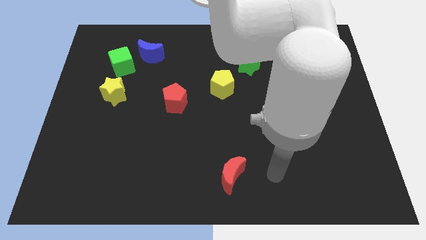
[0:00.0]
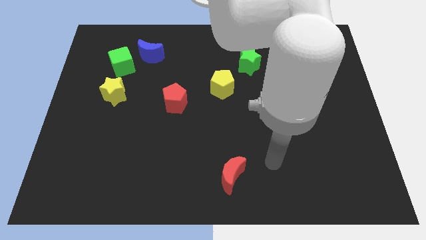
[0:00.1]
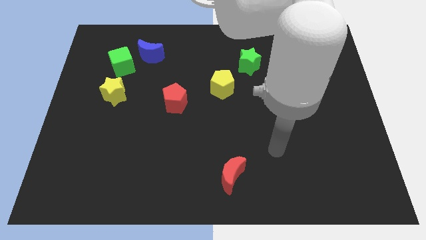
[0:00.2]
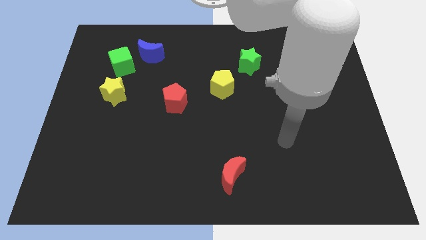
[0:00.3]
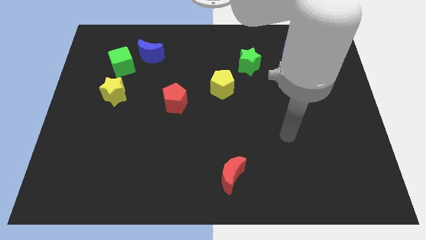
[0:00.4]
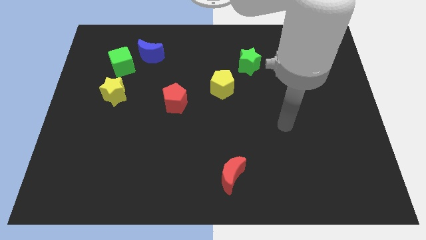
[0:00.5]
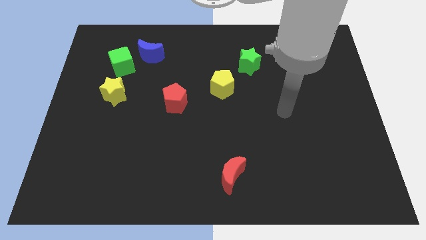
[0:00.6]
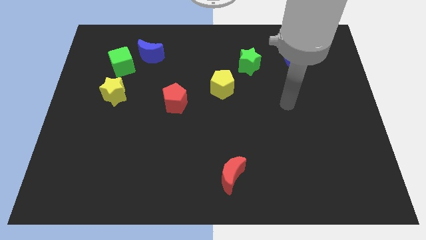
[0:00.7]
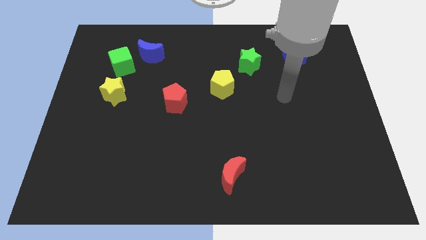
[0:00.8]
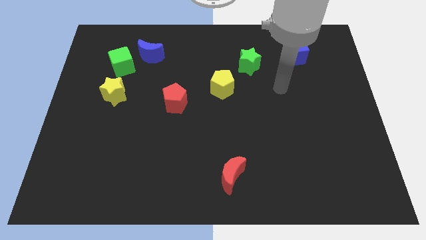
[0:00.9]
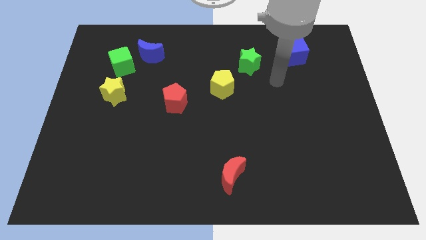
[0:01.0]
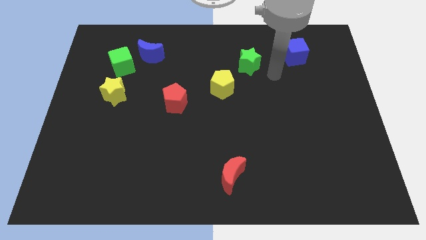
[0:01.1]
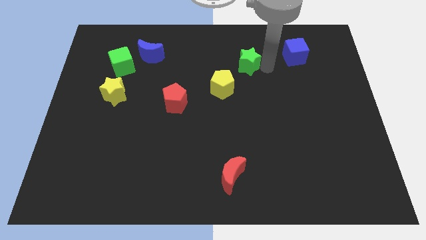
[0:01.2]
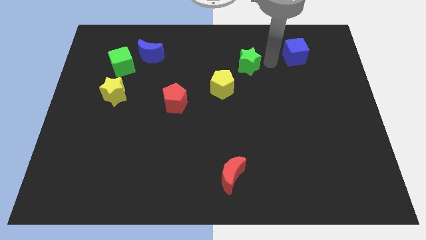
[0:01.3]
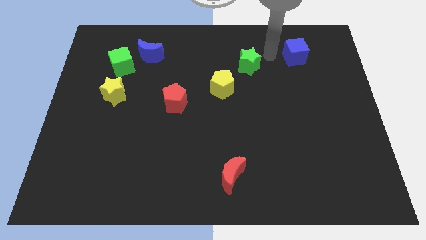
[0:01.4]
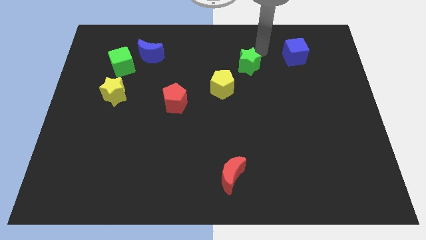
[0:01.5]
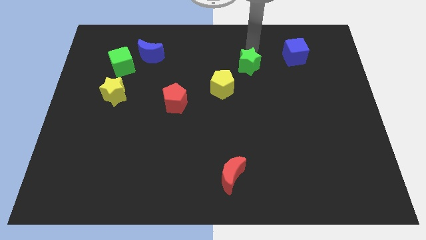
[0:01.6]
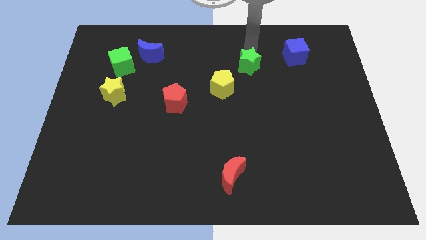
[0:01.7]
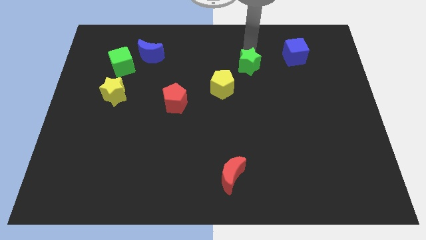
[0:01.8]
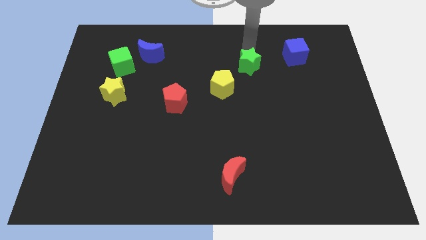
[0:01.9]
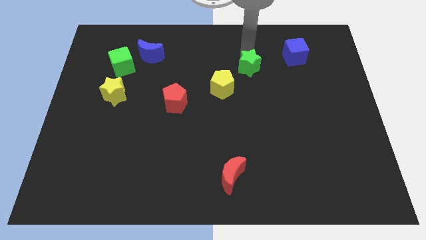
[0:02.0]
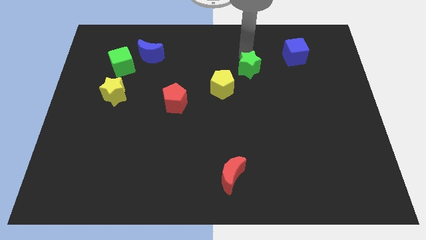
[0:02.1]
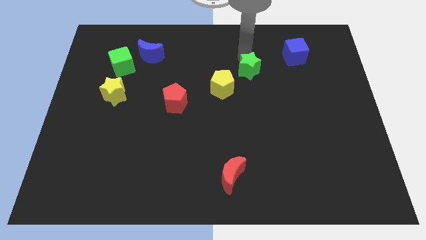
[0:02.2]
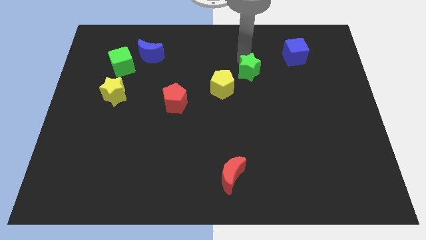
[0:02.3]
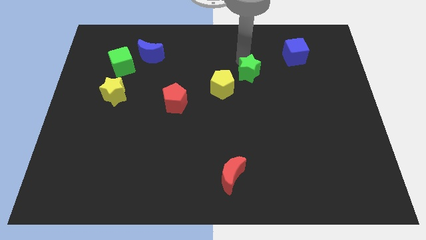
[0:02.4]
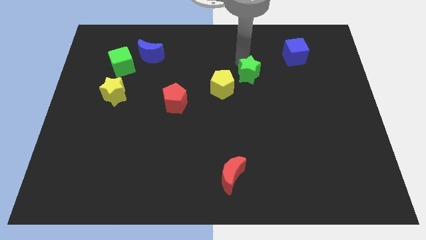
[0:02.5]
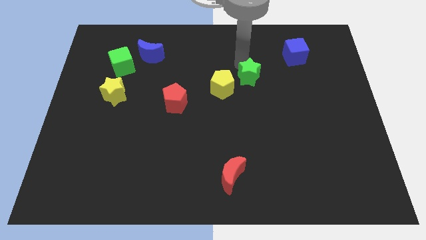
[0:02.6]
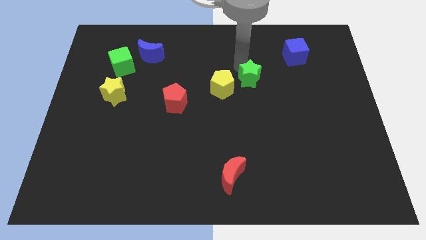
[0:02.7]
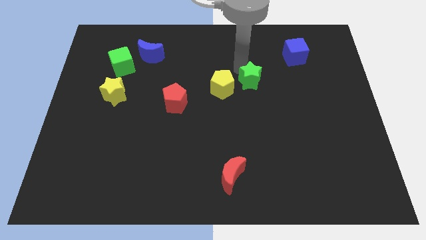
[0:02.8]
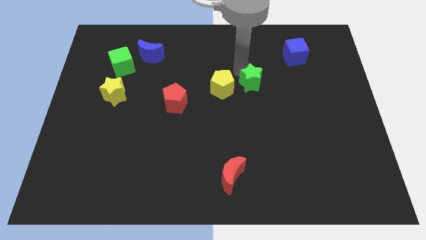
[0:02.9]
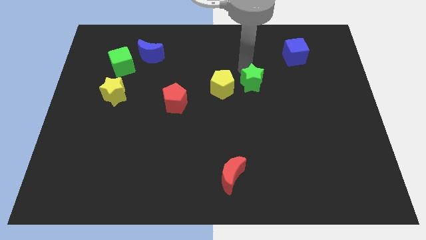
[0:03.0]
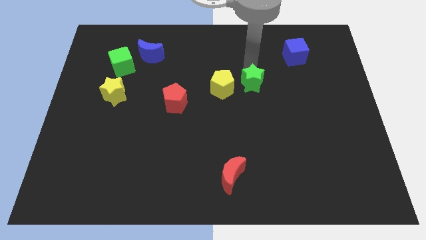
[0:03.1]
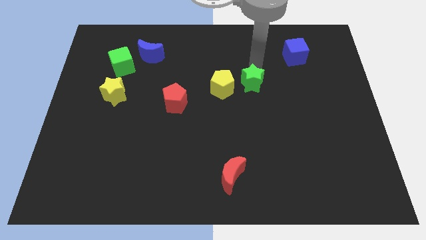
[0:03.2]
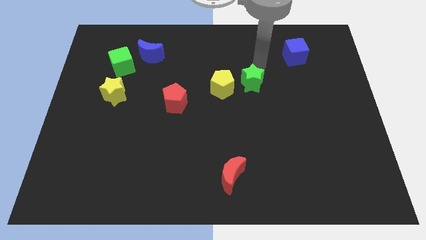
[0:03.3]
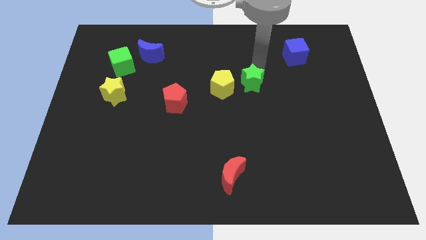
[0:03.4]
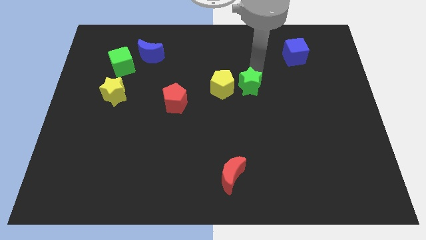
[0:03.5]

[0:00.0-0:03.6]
move the green star down a bit

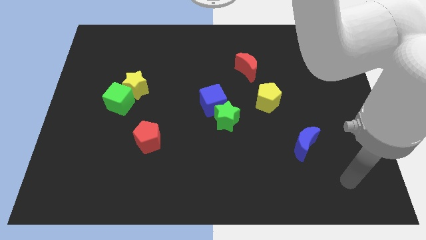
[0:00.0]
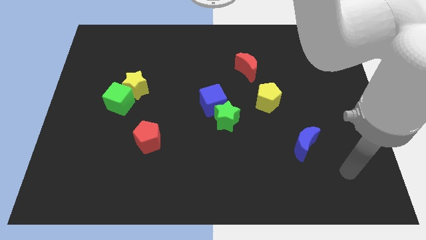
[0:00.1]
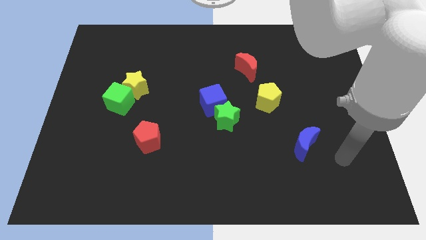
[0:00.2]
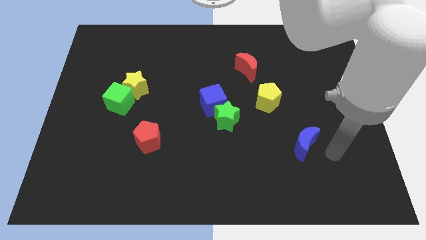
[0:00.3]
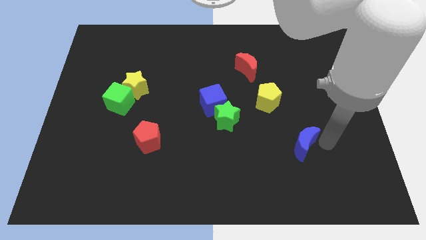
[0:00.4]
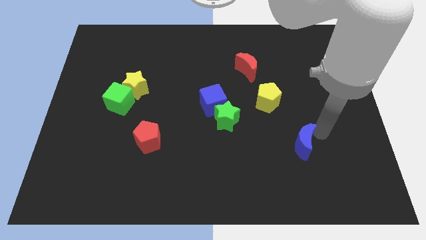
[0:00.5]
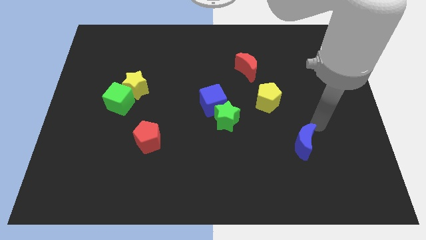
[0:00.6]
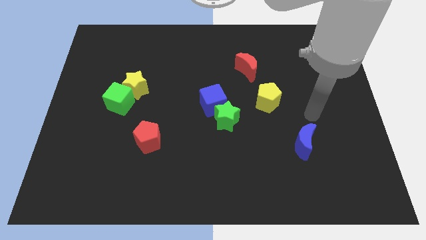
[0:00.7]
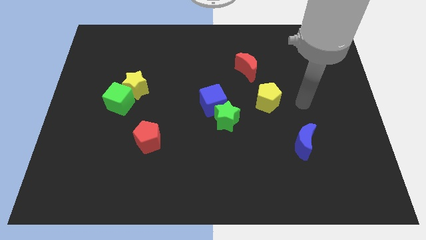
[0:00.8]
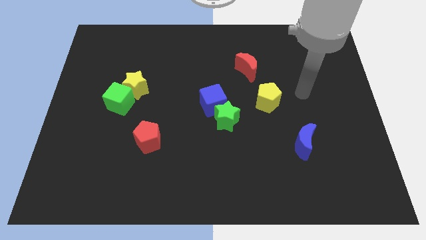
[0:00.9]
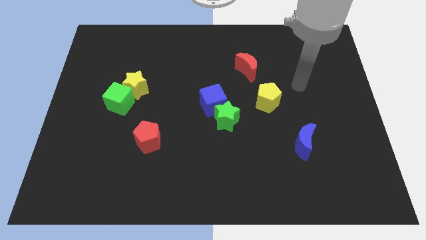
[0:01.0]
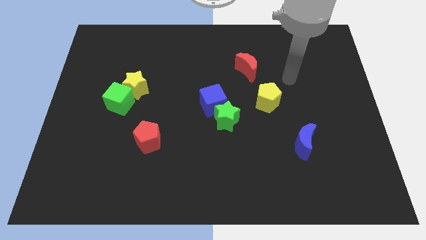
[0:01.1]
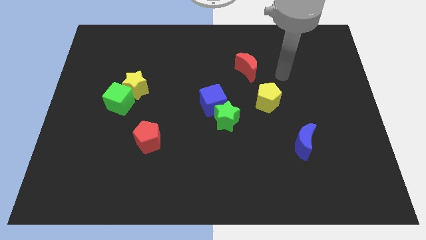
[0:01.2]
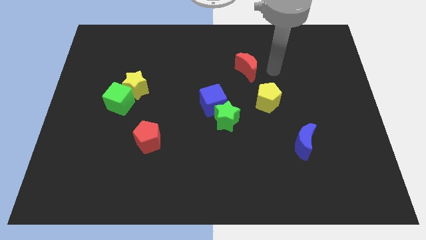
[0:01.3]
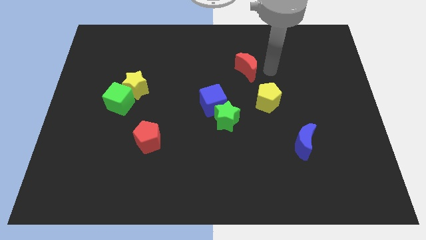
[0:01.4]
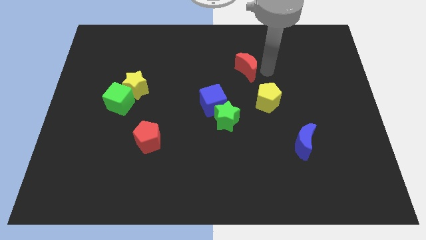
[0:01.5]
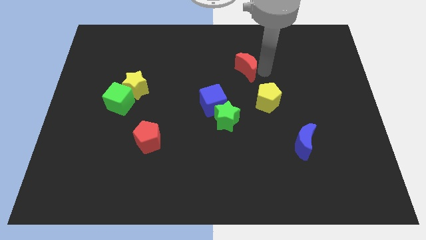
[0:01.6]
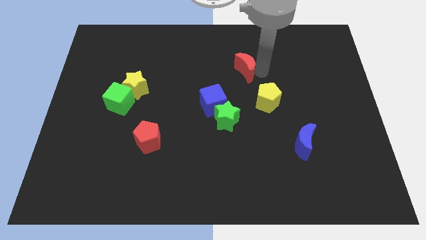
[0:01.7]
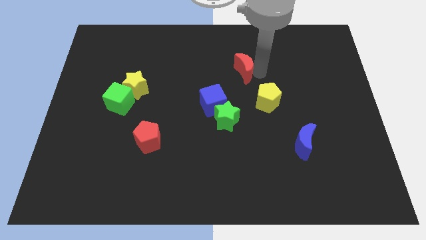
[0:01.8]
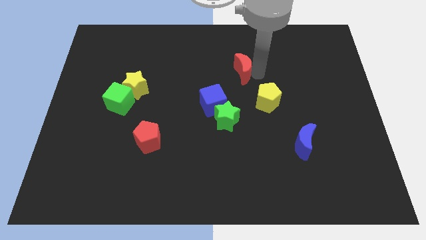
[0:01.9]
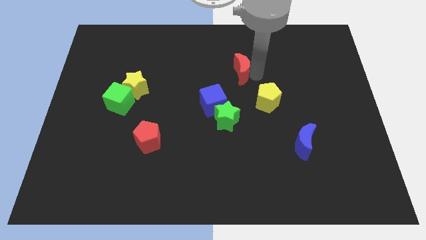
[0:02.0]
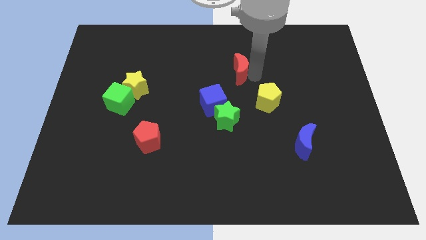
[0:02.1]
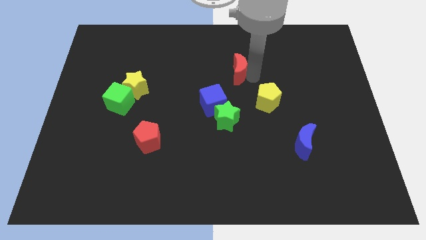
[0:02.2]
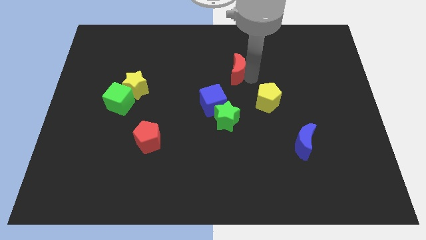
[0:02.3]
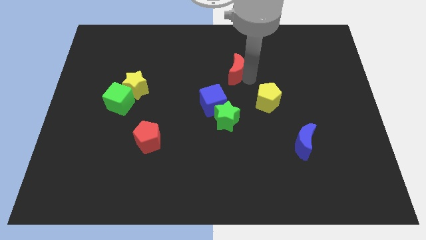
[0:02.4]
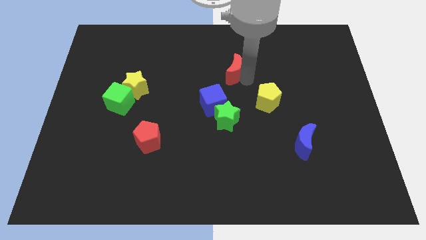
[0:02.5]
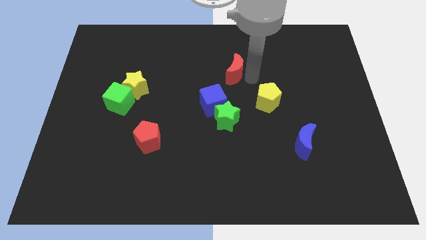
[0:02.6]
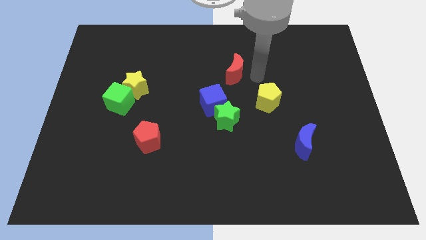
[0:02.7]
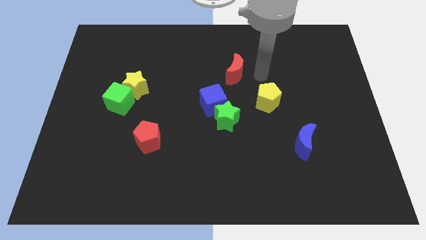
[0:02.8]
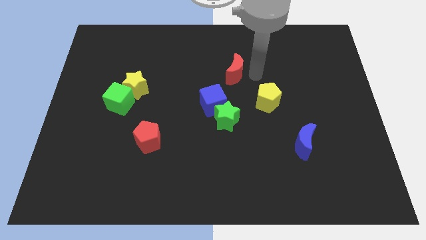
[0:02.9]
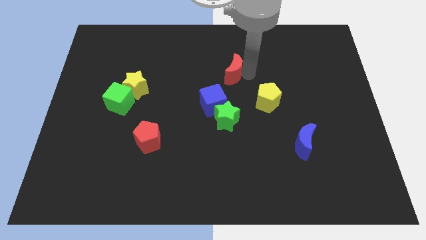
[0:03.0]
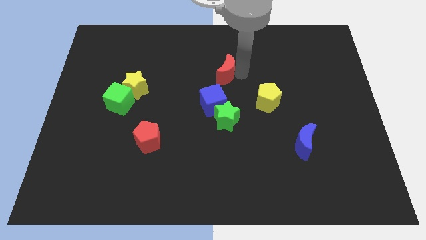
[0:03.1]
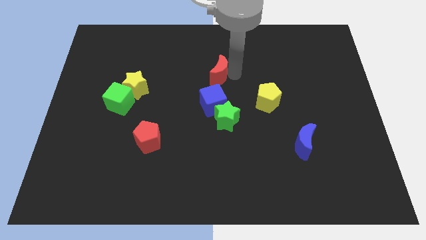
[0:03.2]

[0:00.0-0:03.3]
slightly push the red moon to the left

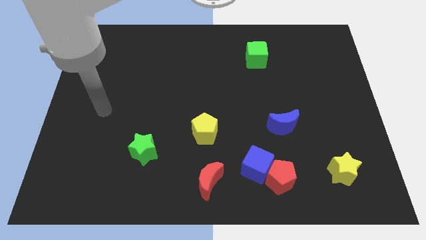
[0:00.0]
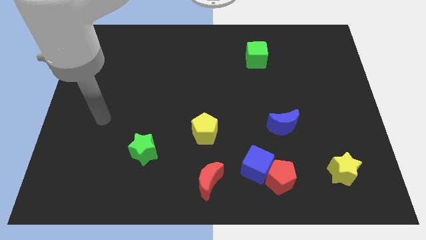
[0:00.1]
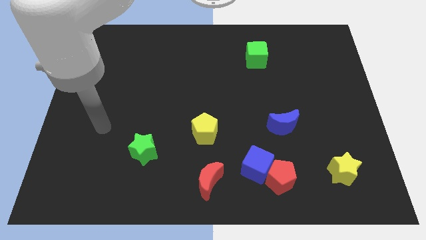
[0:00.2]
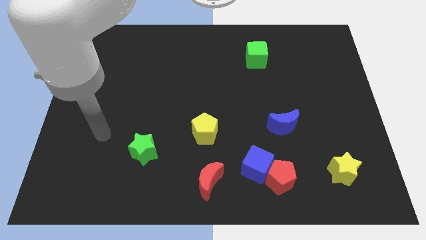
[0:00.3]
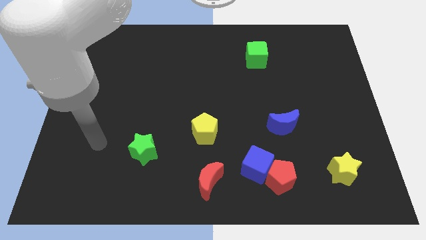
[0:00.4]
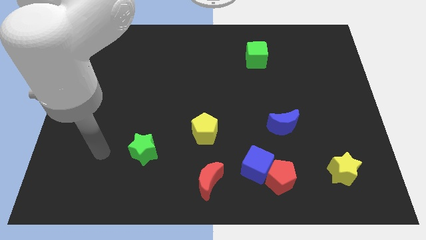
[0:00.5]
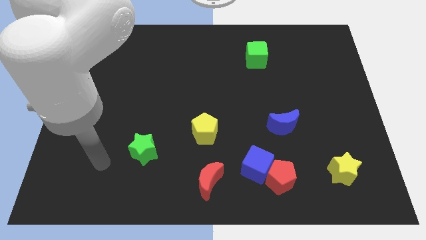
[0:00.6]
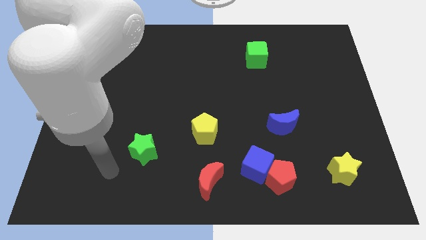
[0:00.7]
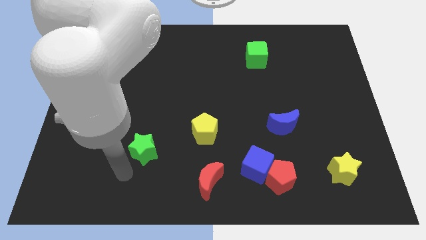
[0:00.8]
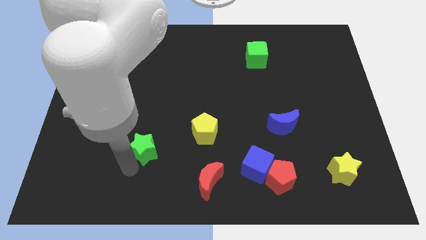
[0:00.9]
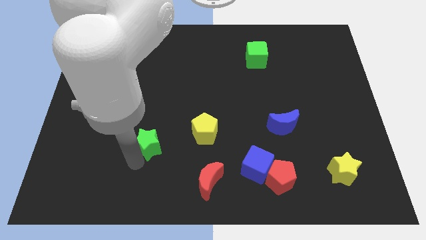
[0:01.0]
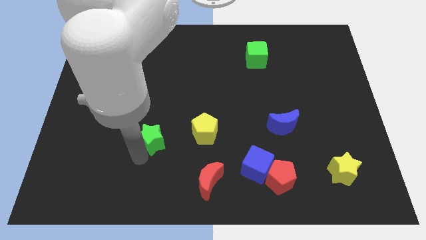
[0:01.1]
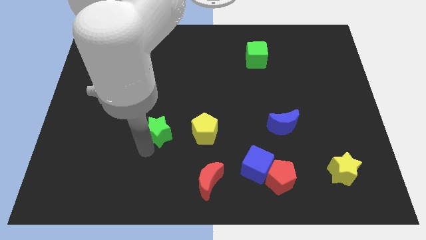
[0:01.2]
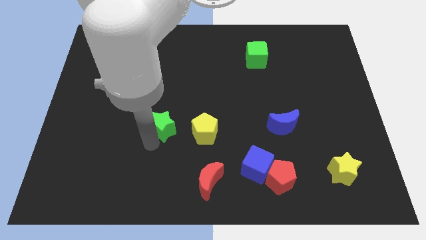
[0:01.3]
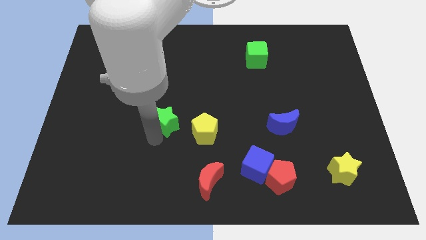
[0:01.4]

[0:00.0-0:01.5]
slide the green star up and right diagonally slightly
